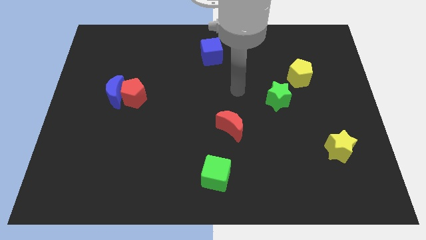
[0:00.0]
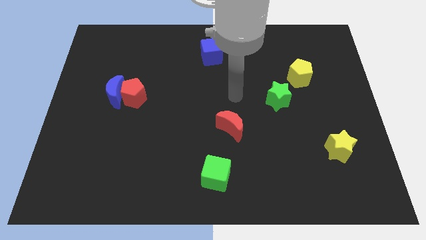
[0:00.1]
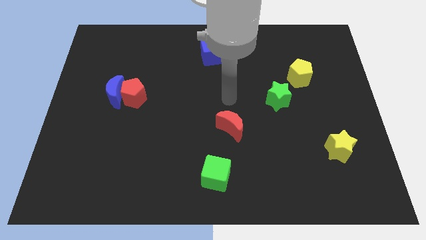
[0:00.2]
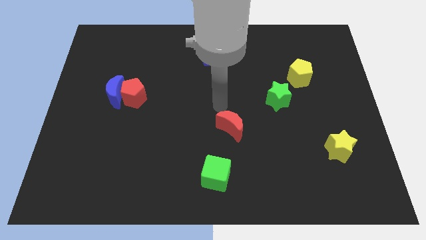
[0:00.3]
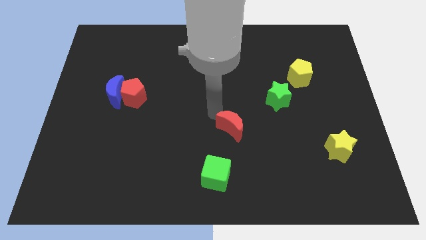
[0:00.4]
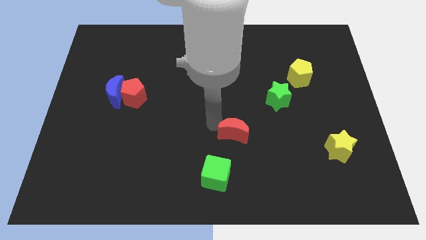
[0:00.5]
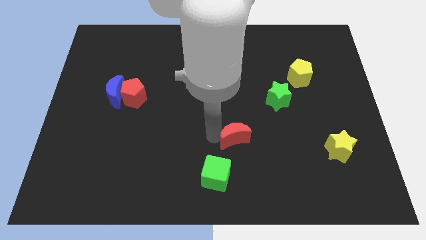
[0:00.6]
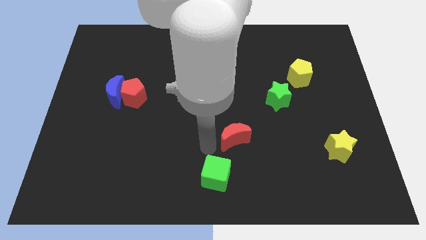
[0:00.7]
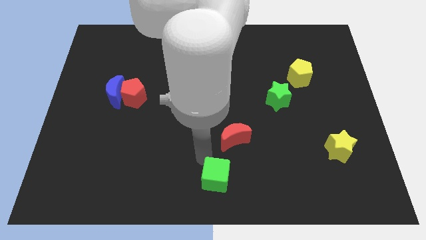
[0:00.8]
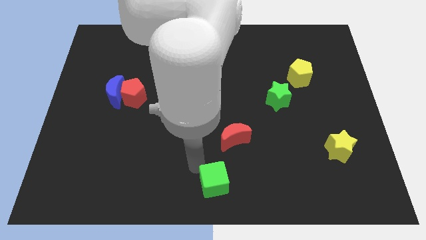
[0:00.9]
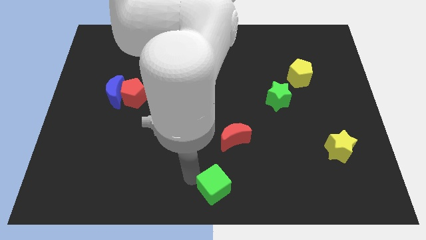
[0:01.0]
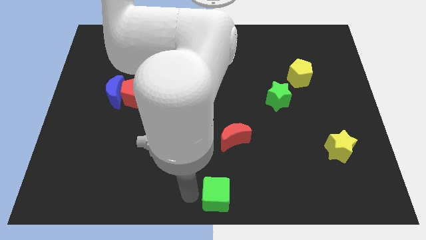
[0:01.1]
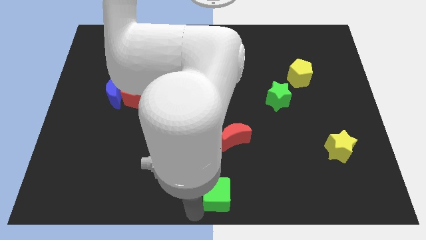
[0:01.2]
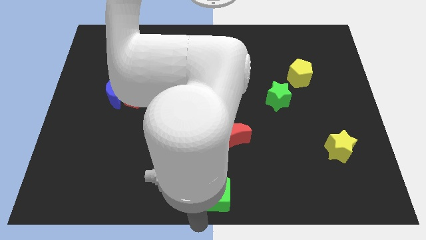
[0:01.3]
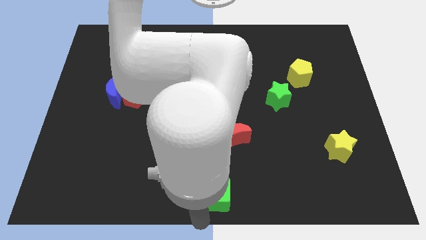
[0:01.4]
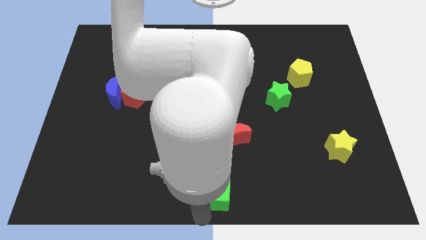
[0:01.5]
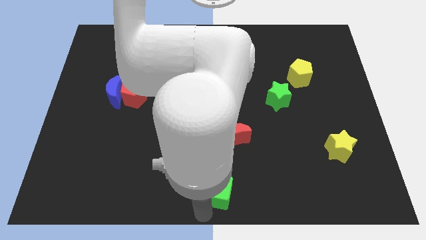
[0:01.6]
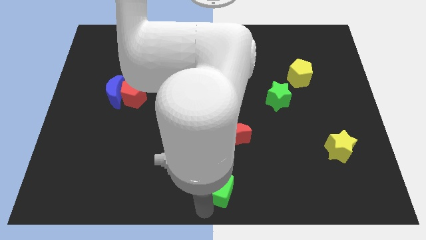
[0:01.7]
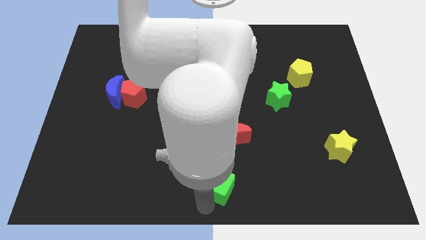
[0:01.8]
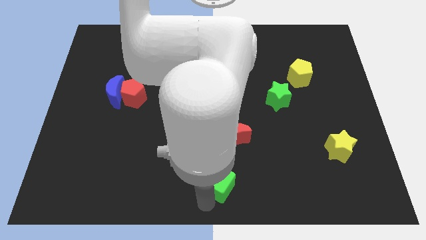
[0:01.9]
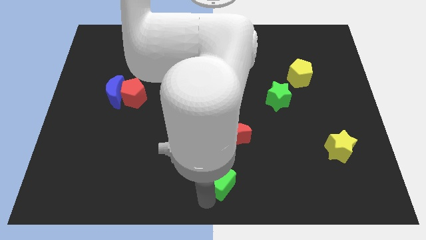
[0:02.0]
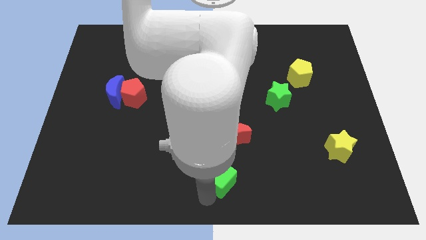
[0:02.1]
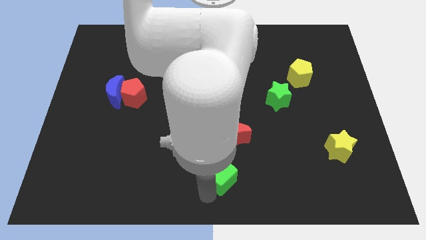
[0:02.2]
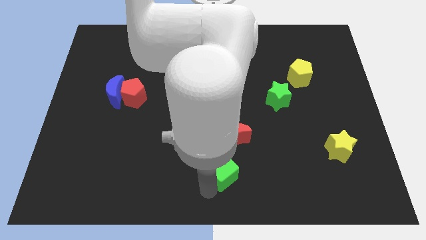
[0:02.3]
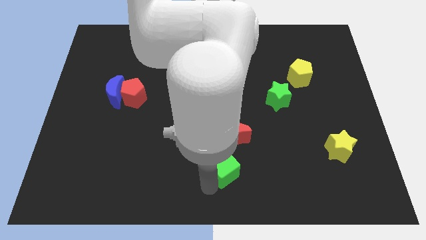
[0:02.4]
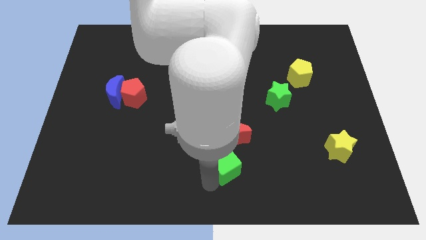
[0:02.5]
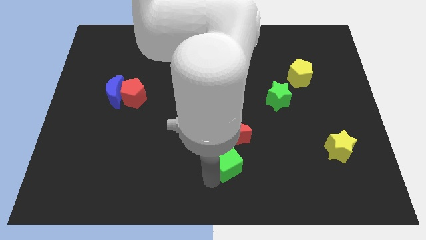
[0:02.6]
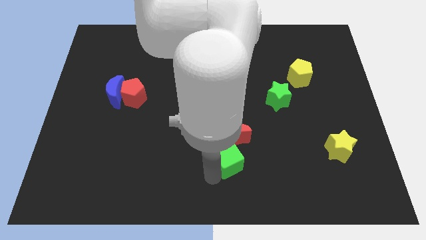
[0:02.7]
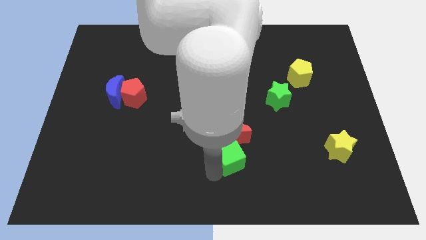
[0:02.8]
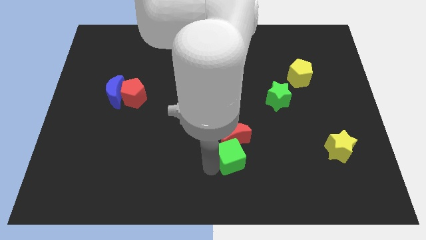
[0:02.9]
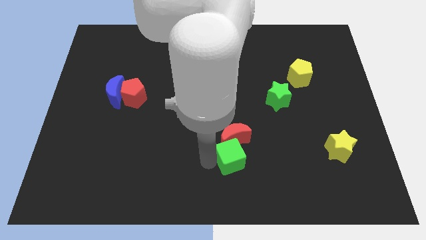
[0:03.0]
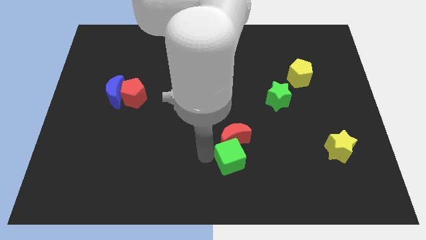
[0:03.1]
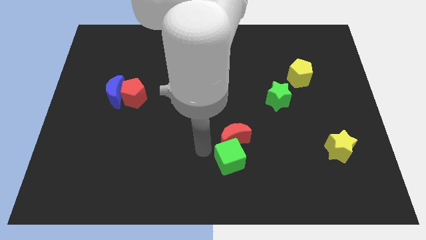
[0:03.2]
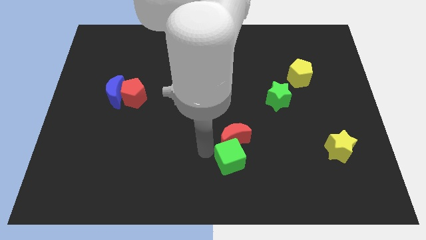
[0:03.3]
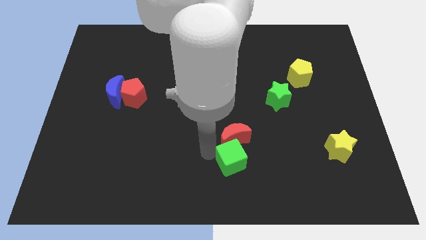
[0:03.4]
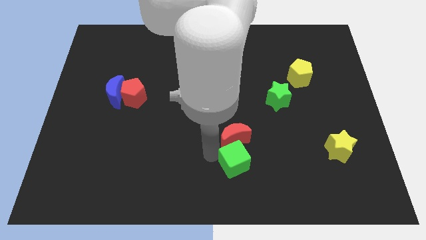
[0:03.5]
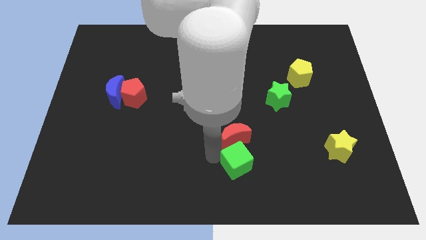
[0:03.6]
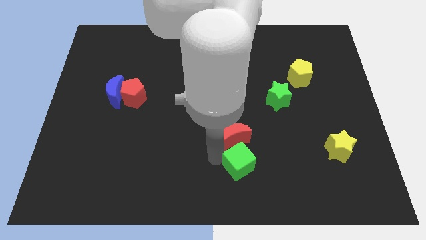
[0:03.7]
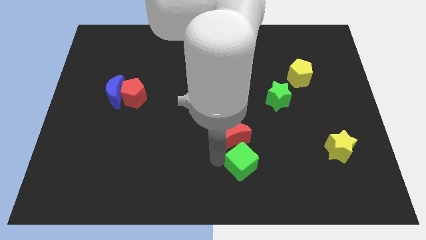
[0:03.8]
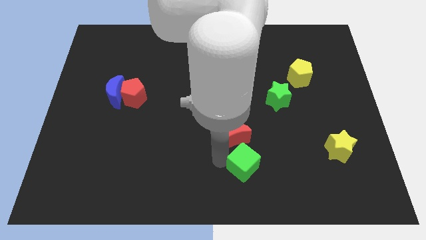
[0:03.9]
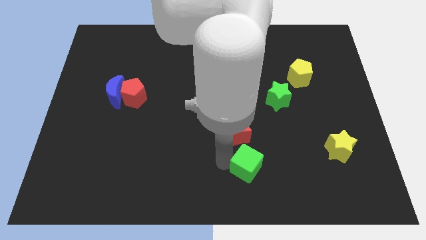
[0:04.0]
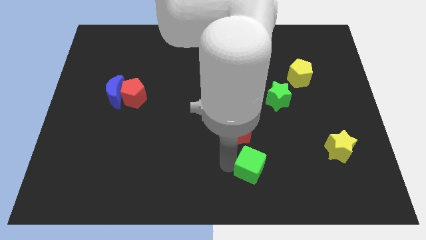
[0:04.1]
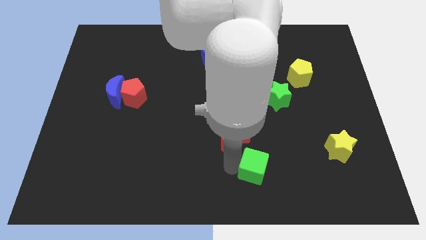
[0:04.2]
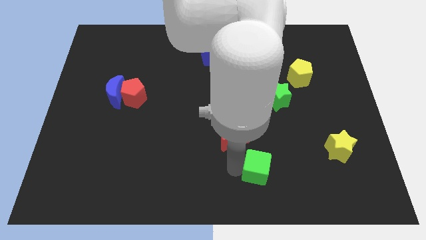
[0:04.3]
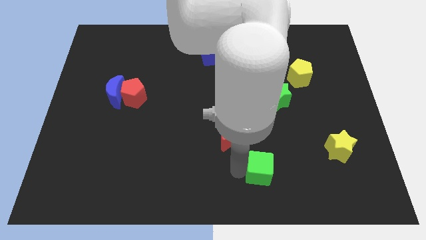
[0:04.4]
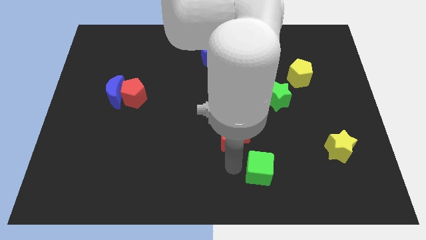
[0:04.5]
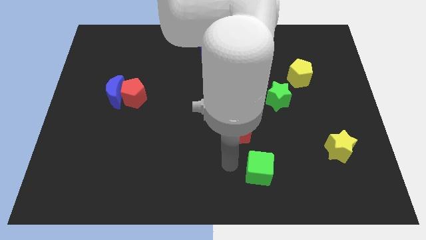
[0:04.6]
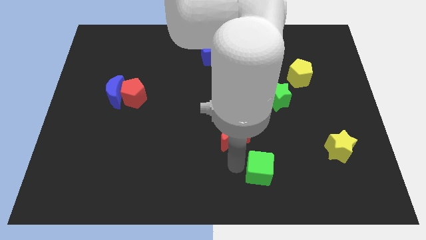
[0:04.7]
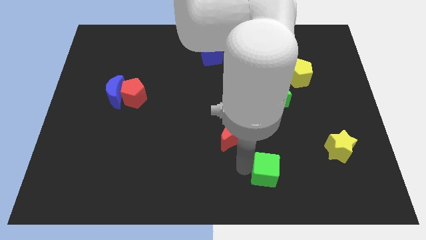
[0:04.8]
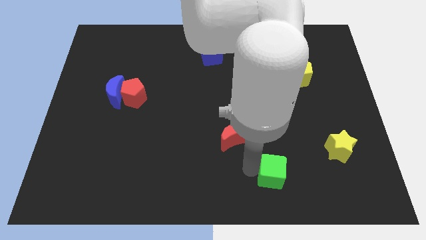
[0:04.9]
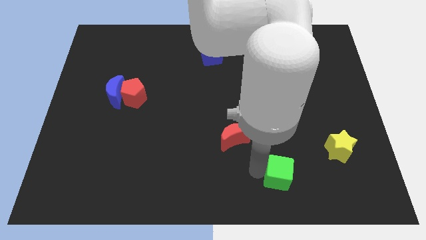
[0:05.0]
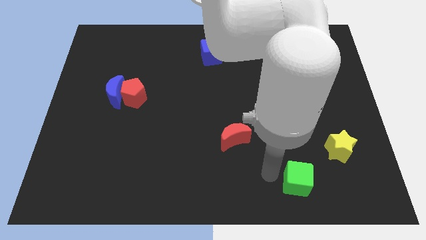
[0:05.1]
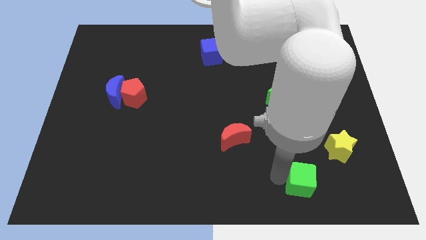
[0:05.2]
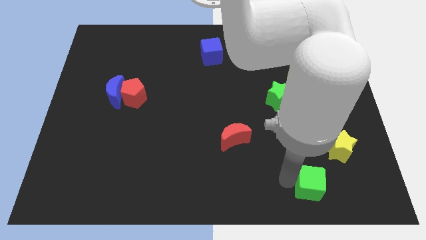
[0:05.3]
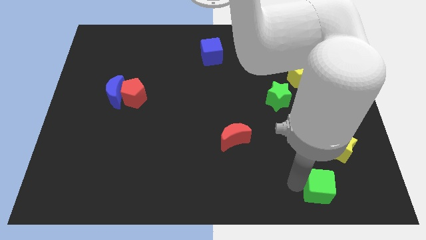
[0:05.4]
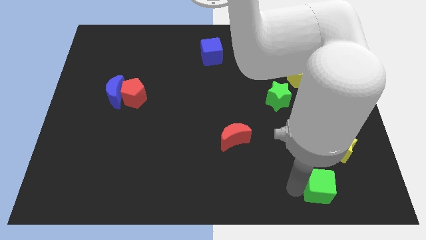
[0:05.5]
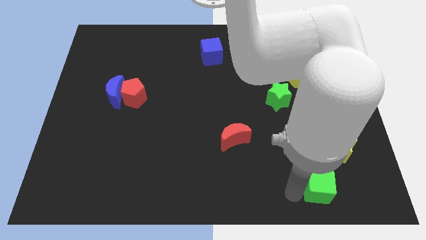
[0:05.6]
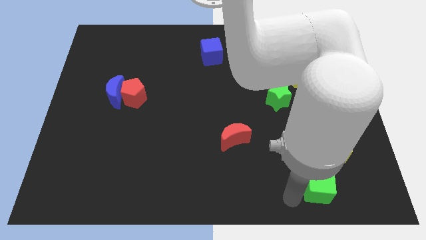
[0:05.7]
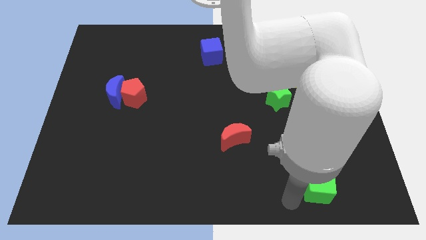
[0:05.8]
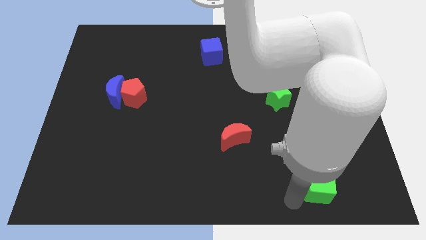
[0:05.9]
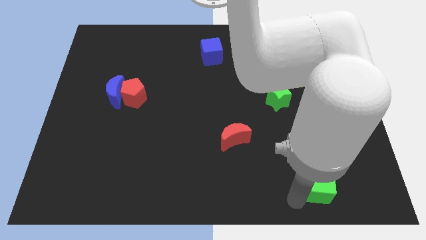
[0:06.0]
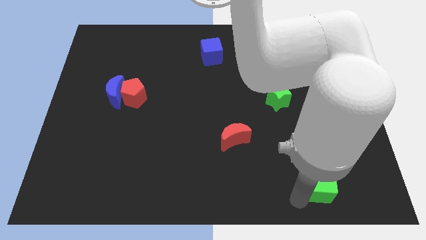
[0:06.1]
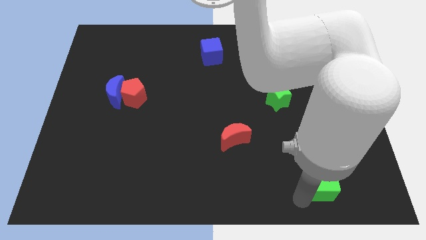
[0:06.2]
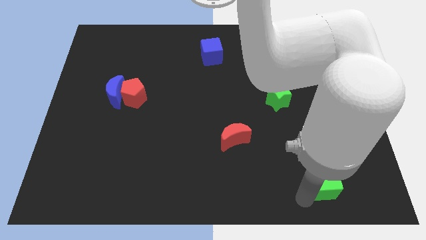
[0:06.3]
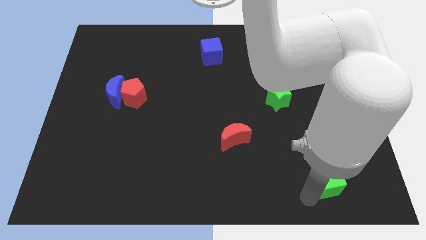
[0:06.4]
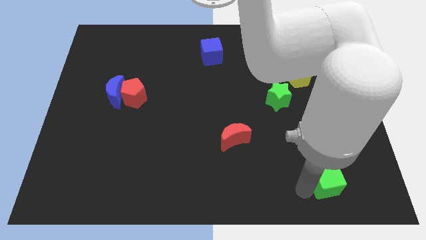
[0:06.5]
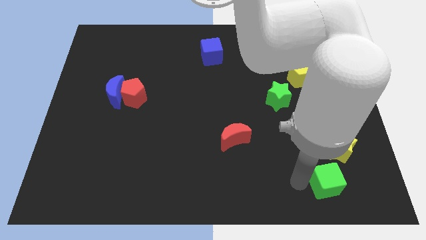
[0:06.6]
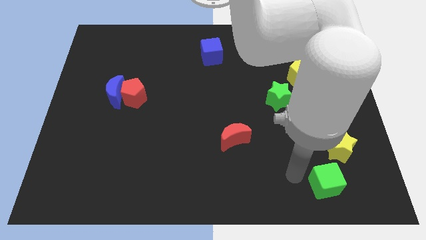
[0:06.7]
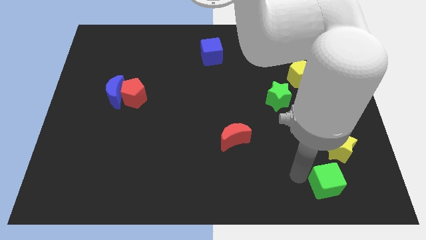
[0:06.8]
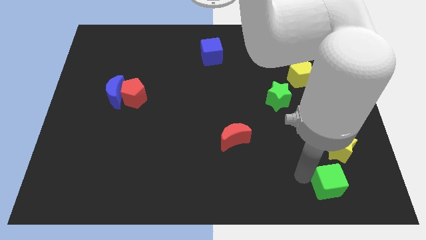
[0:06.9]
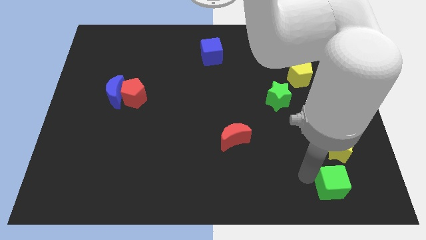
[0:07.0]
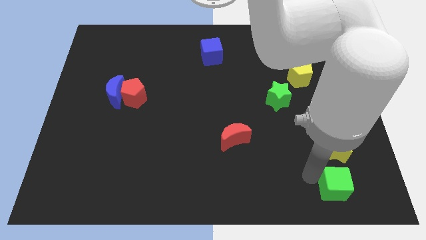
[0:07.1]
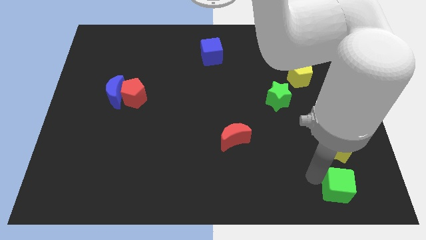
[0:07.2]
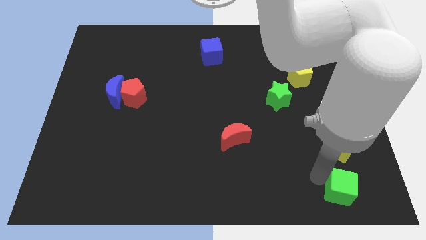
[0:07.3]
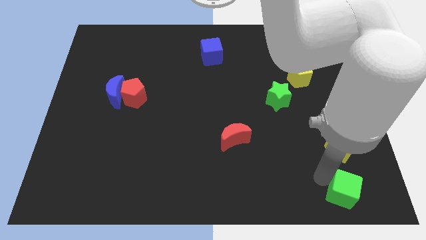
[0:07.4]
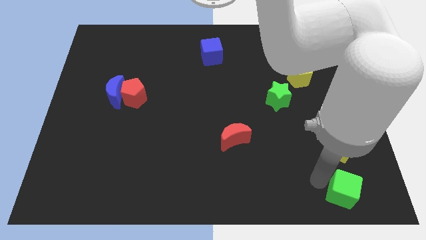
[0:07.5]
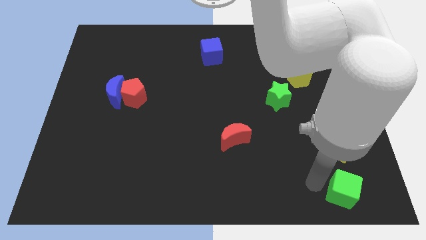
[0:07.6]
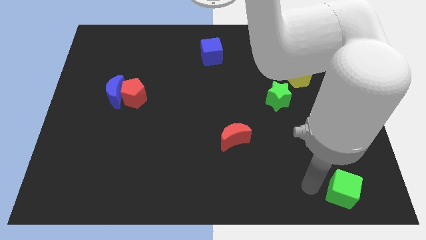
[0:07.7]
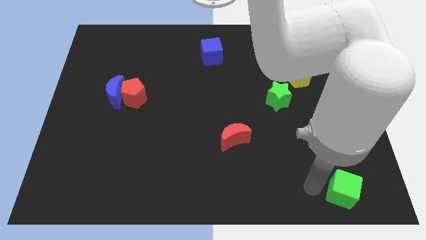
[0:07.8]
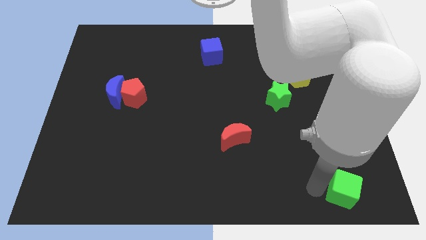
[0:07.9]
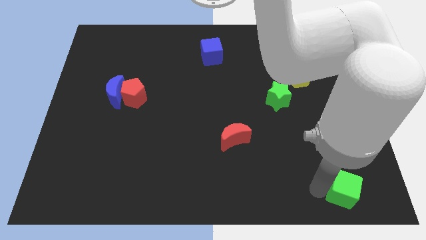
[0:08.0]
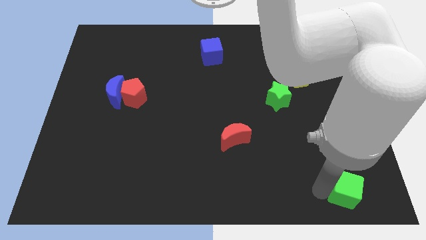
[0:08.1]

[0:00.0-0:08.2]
push the green cube to the bottom right
